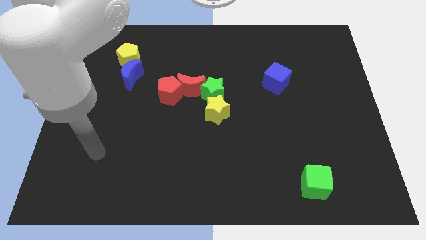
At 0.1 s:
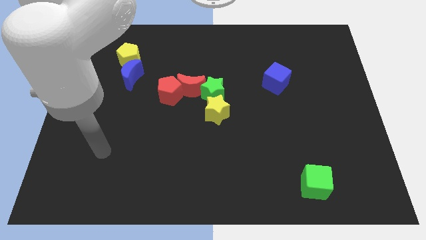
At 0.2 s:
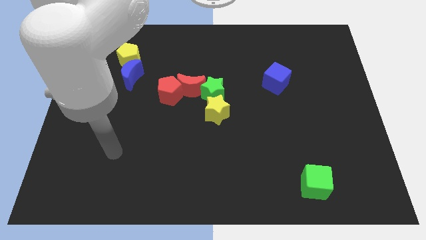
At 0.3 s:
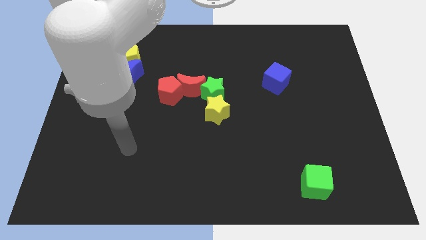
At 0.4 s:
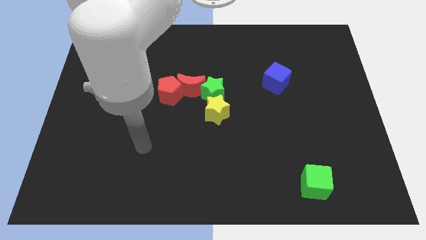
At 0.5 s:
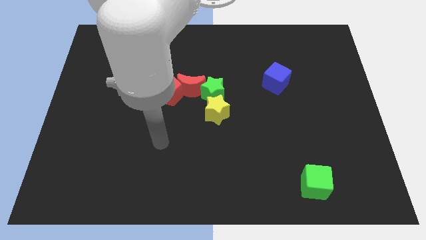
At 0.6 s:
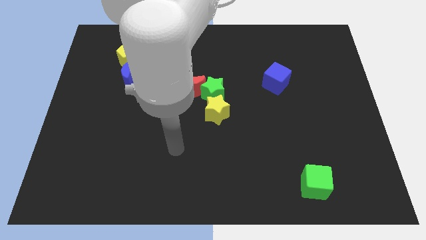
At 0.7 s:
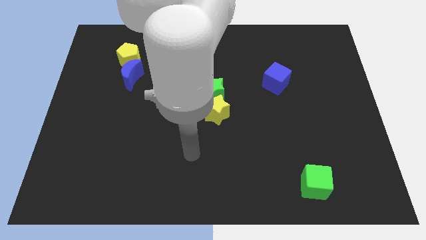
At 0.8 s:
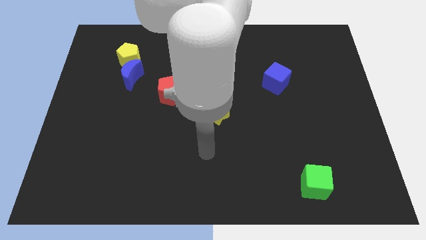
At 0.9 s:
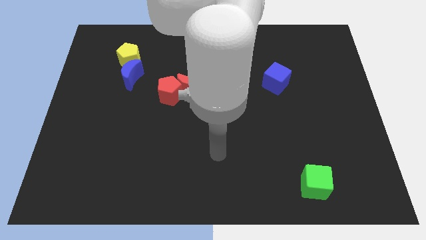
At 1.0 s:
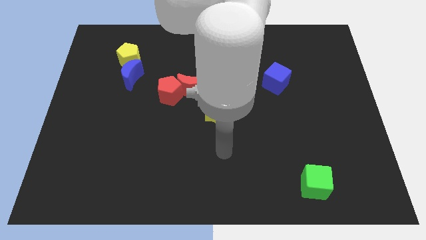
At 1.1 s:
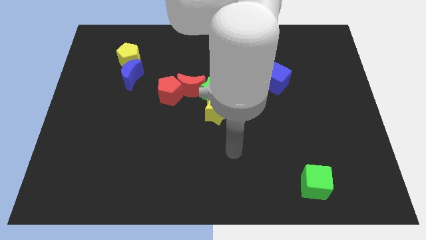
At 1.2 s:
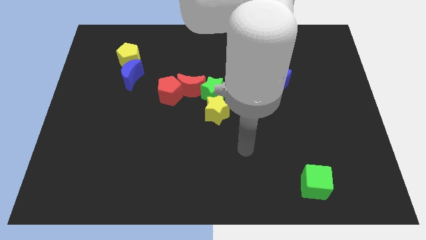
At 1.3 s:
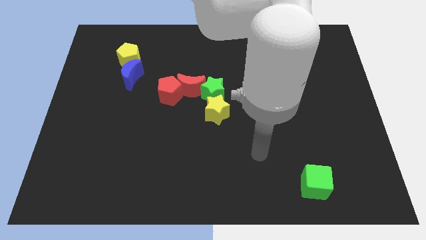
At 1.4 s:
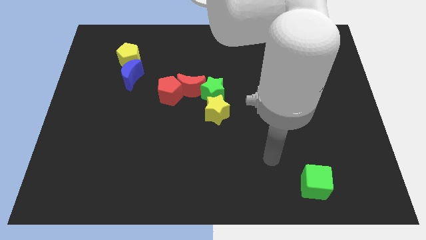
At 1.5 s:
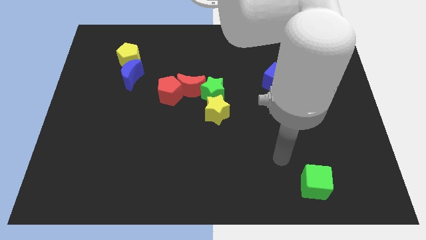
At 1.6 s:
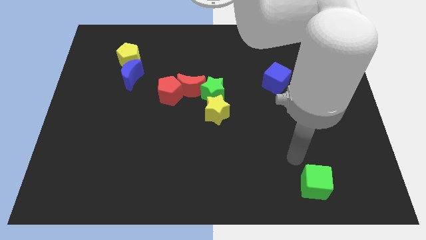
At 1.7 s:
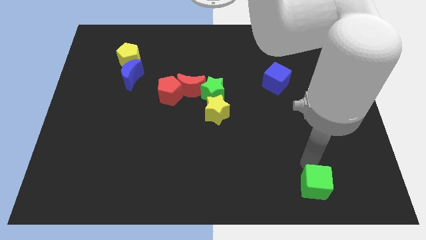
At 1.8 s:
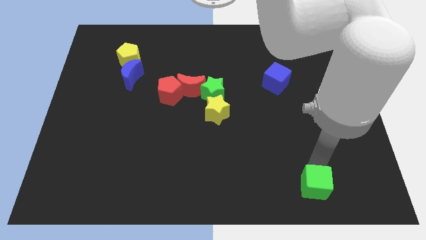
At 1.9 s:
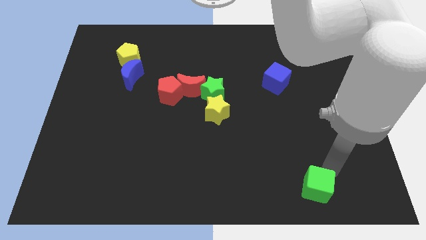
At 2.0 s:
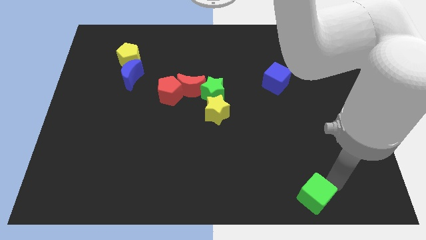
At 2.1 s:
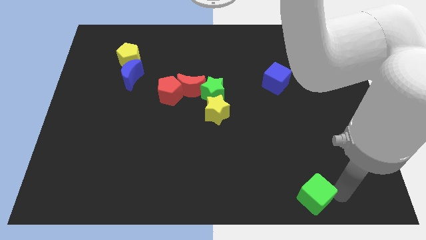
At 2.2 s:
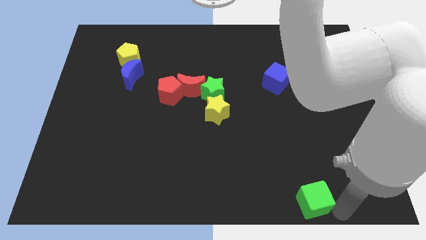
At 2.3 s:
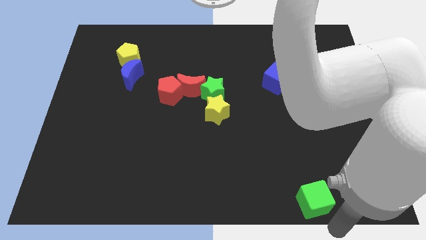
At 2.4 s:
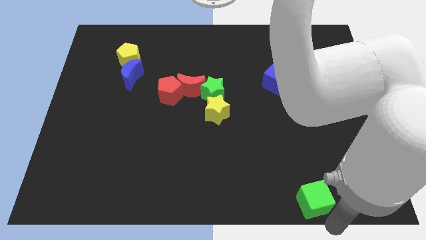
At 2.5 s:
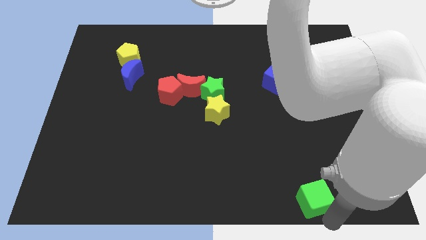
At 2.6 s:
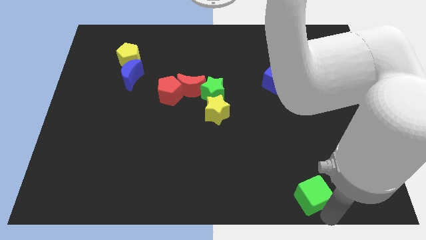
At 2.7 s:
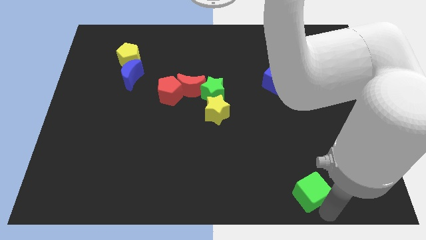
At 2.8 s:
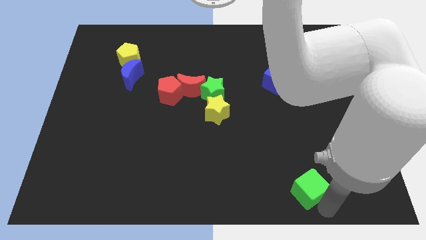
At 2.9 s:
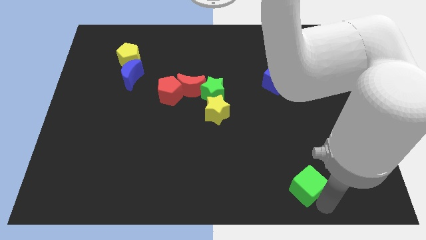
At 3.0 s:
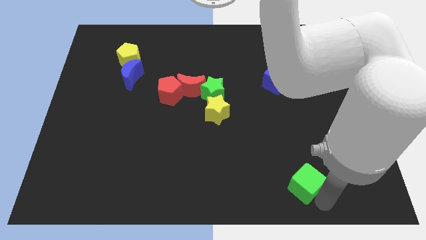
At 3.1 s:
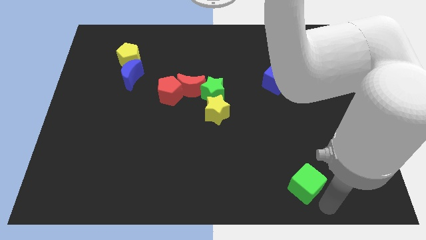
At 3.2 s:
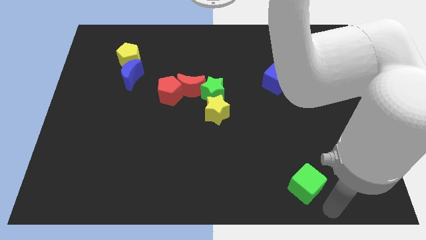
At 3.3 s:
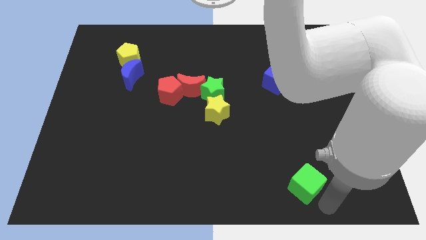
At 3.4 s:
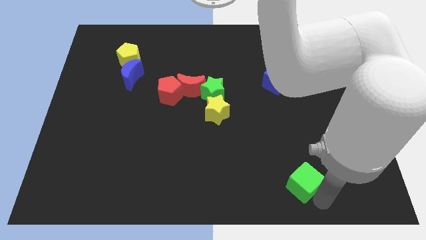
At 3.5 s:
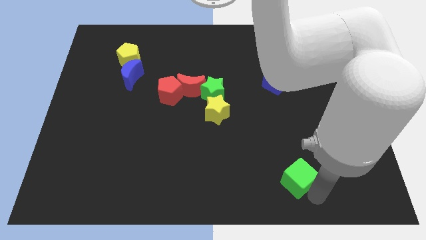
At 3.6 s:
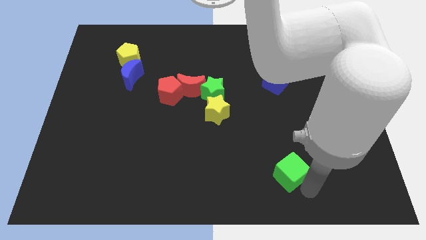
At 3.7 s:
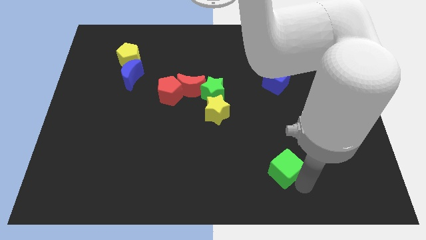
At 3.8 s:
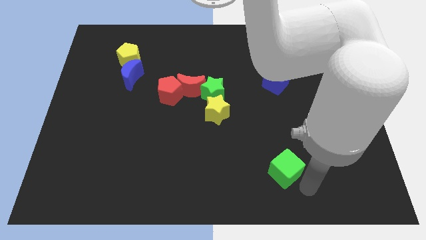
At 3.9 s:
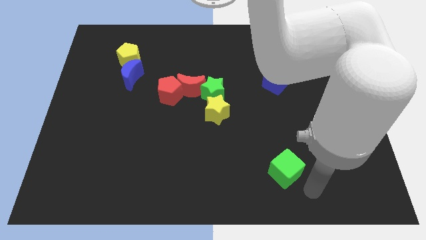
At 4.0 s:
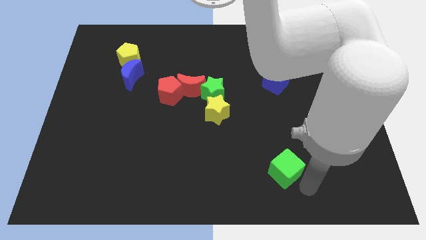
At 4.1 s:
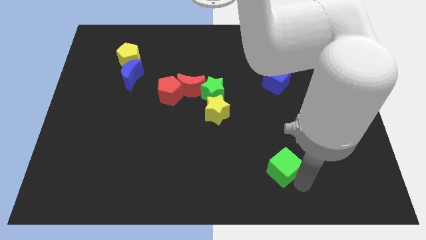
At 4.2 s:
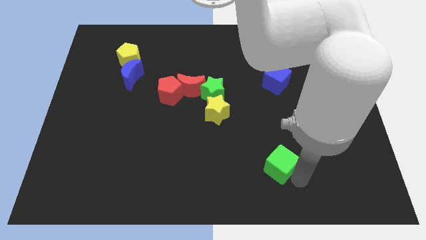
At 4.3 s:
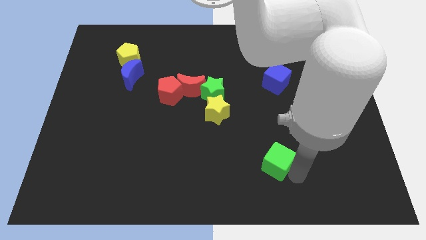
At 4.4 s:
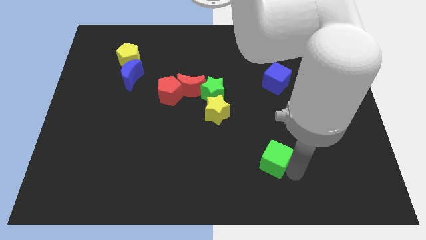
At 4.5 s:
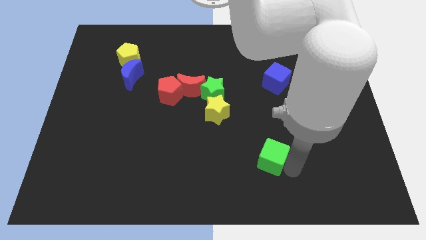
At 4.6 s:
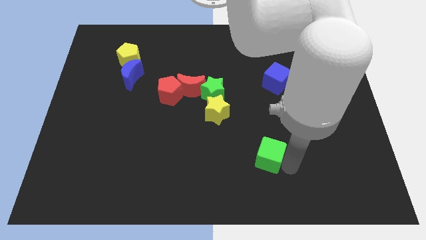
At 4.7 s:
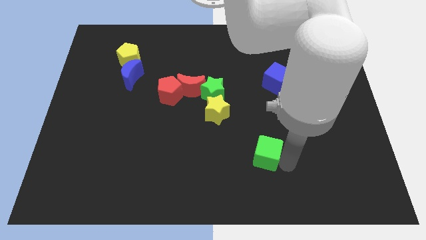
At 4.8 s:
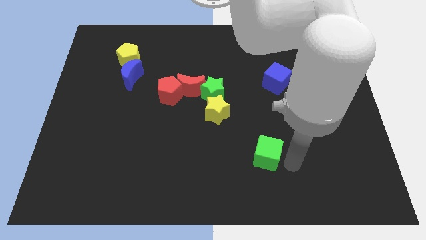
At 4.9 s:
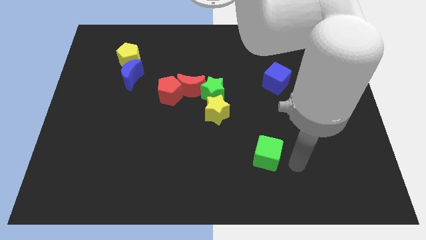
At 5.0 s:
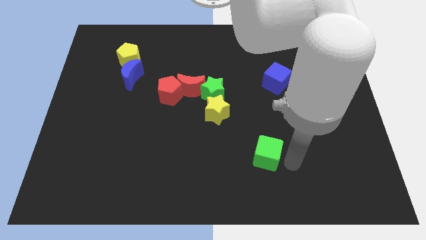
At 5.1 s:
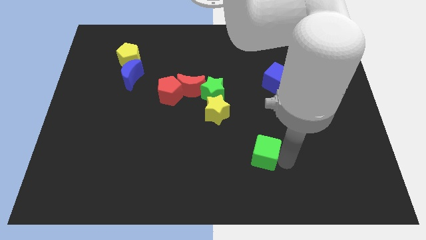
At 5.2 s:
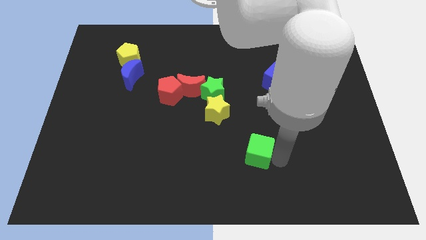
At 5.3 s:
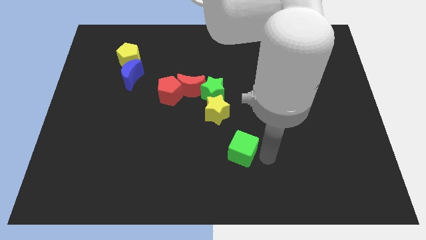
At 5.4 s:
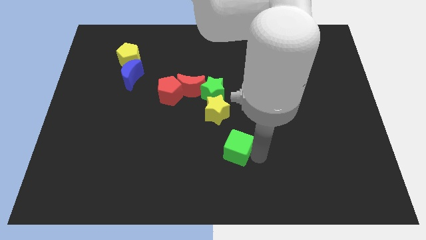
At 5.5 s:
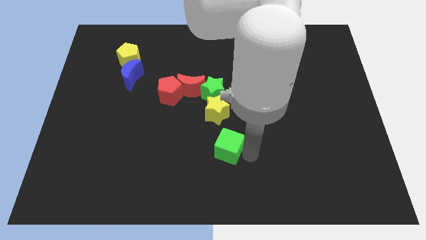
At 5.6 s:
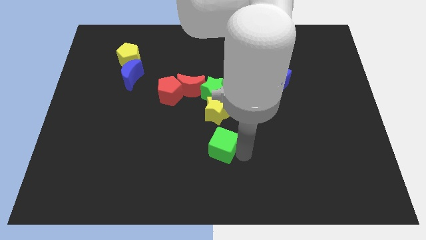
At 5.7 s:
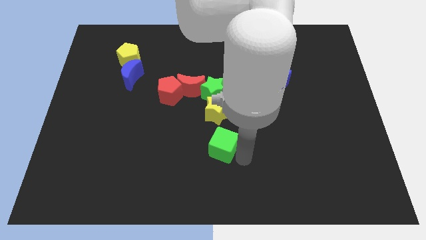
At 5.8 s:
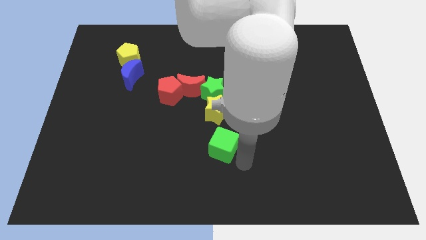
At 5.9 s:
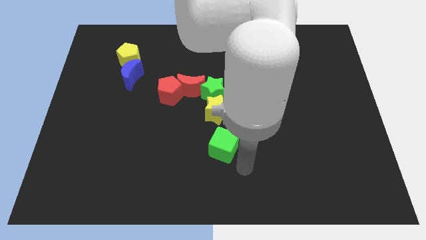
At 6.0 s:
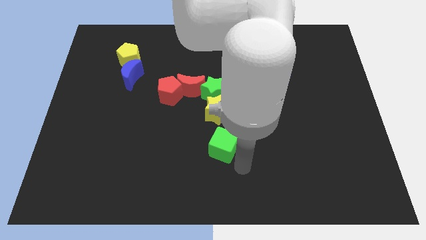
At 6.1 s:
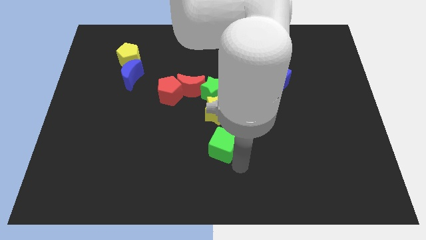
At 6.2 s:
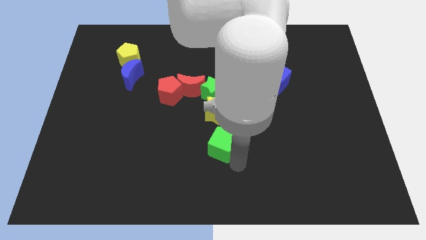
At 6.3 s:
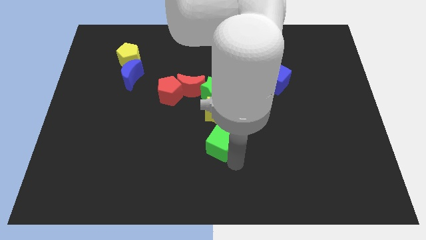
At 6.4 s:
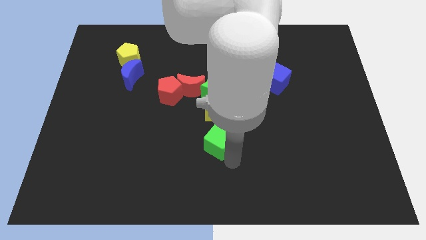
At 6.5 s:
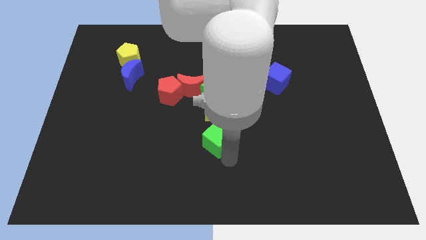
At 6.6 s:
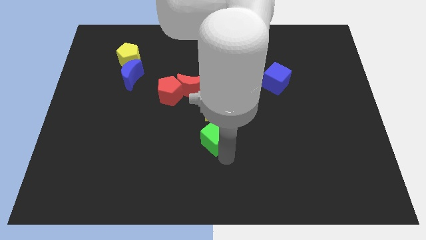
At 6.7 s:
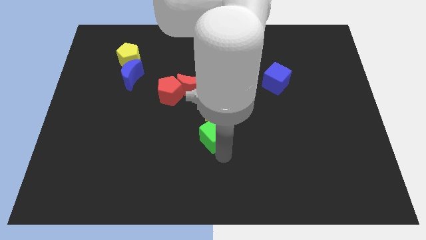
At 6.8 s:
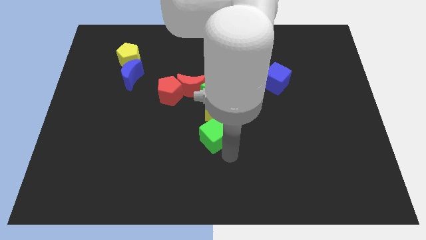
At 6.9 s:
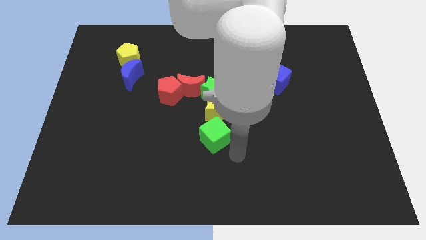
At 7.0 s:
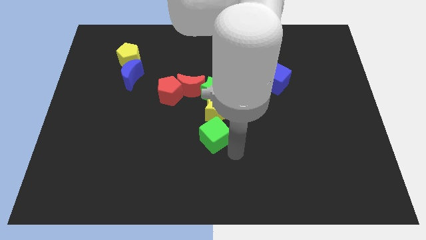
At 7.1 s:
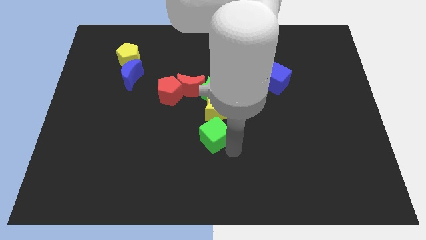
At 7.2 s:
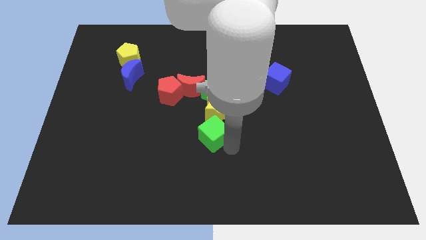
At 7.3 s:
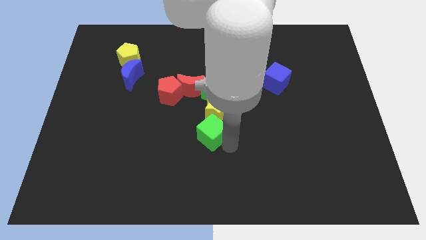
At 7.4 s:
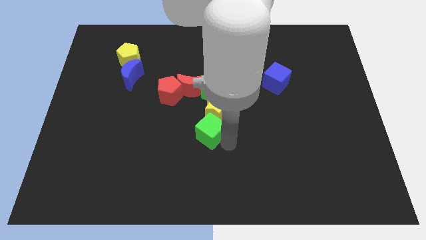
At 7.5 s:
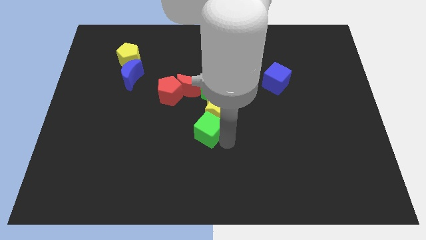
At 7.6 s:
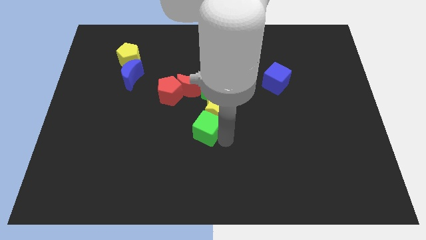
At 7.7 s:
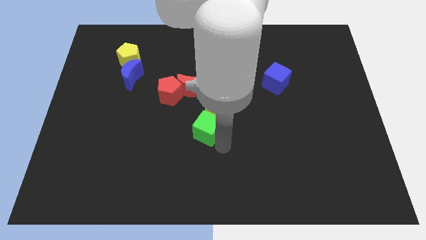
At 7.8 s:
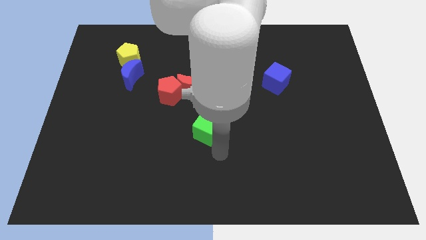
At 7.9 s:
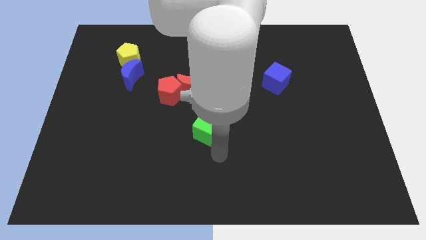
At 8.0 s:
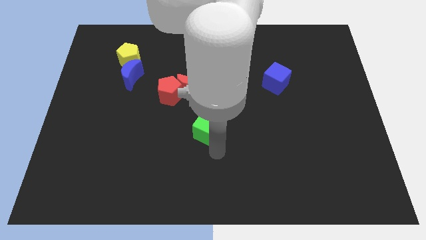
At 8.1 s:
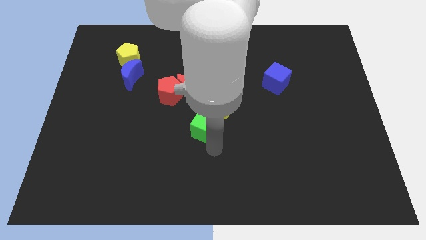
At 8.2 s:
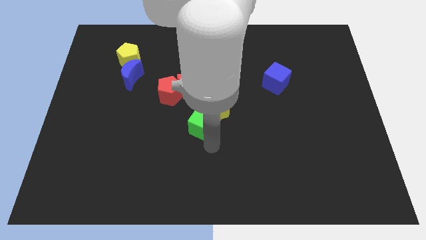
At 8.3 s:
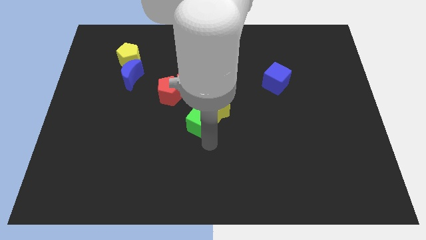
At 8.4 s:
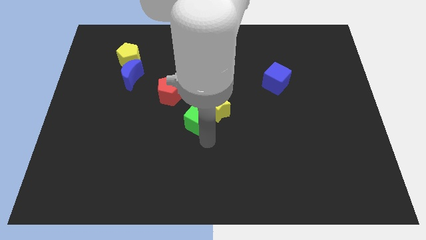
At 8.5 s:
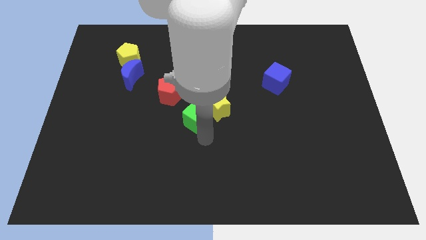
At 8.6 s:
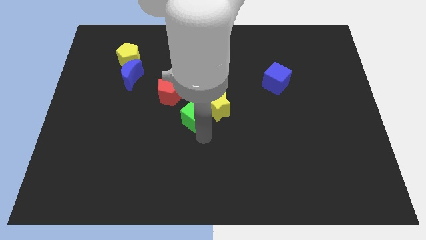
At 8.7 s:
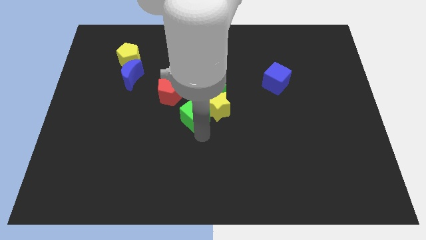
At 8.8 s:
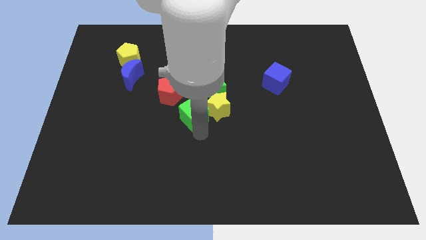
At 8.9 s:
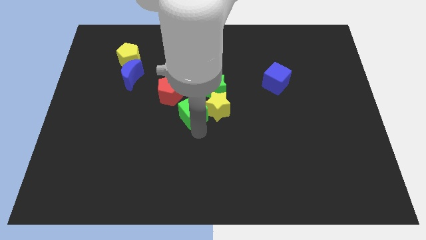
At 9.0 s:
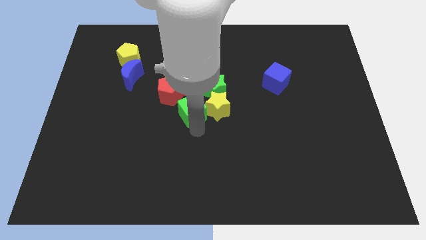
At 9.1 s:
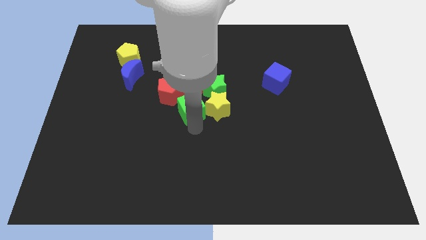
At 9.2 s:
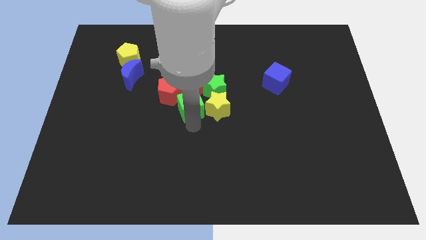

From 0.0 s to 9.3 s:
push the green cube close to the red moon
